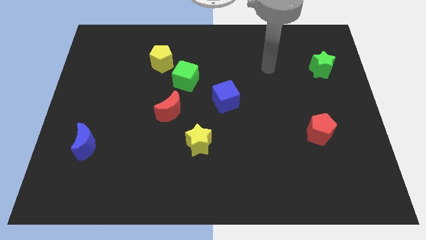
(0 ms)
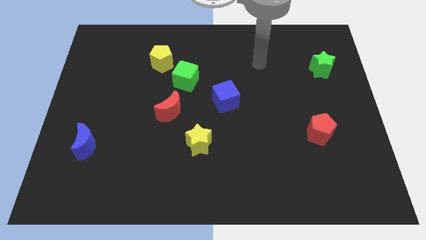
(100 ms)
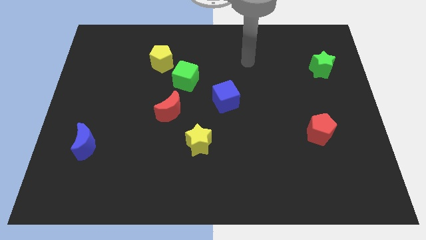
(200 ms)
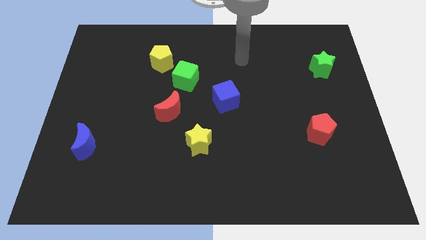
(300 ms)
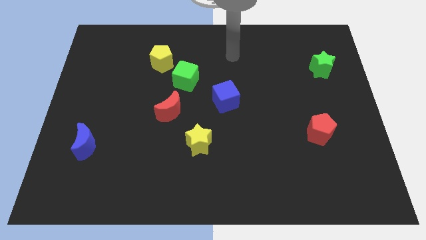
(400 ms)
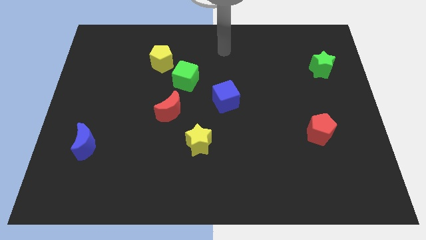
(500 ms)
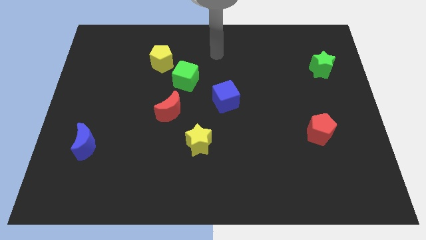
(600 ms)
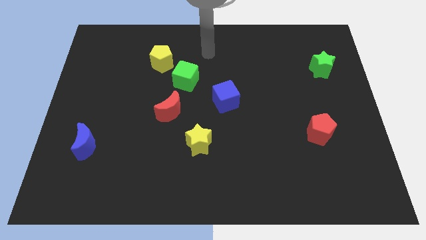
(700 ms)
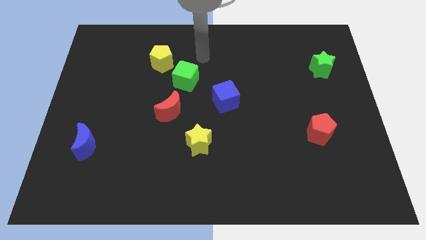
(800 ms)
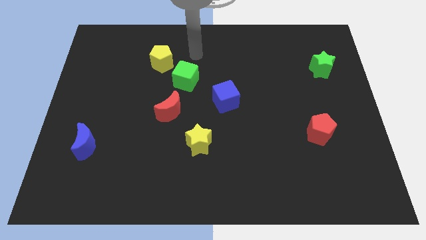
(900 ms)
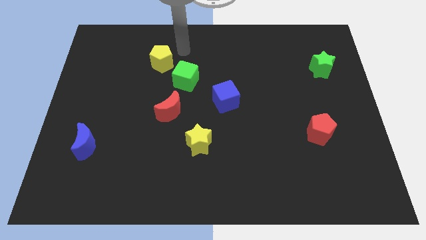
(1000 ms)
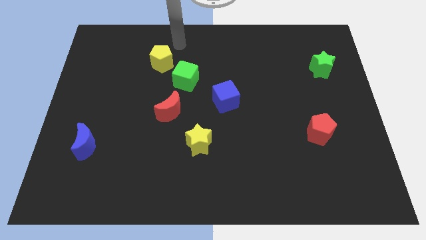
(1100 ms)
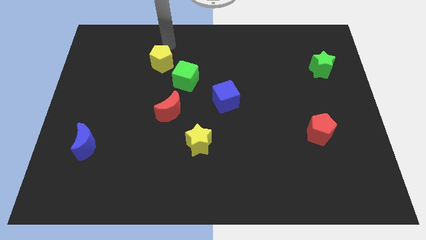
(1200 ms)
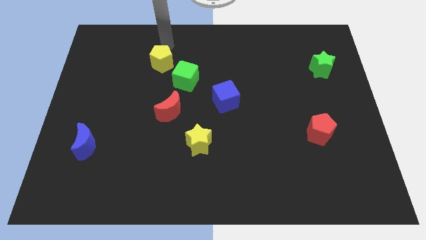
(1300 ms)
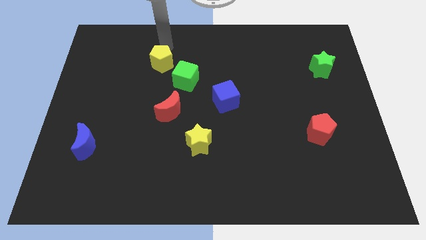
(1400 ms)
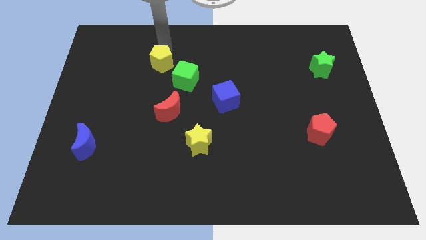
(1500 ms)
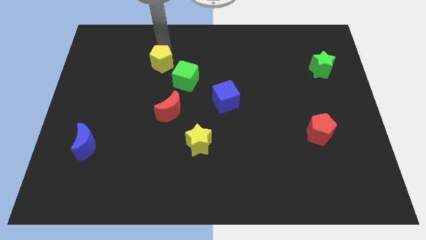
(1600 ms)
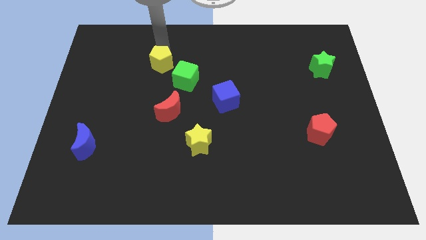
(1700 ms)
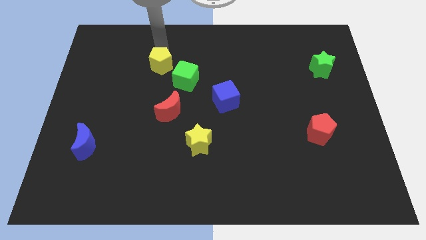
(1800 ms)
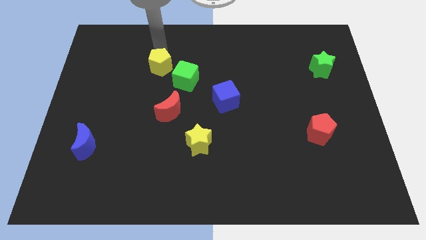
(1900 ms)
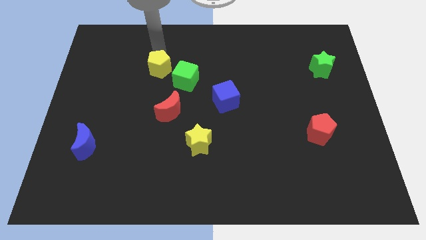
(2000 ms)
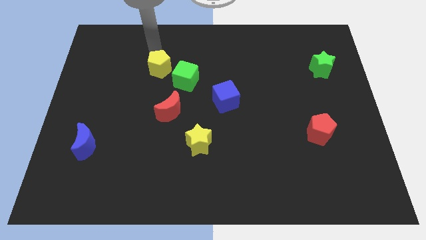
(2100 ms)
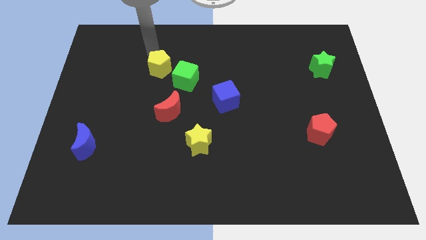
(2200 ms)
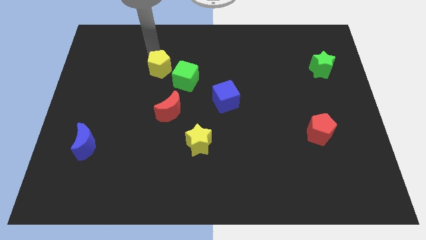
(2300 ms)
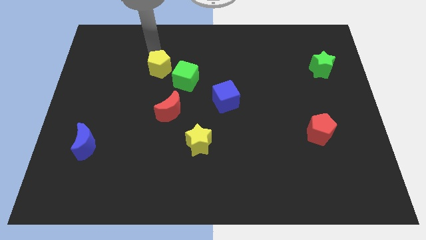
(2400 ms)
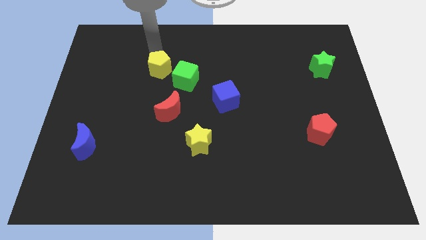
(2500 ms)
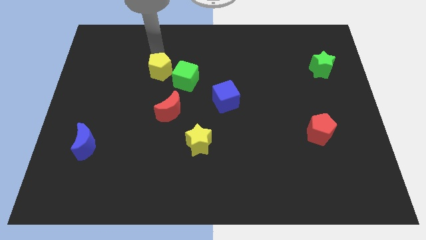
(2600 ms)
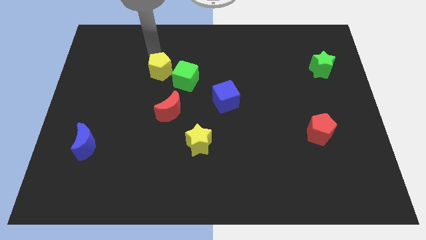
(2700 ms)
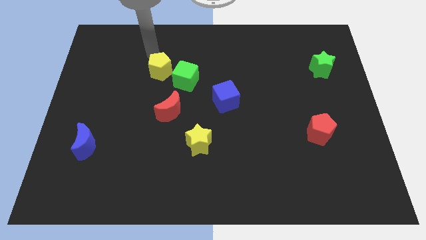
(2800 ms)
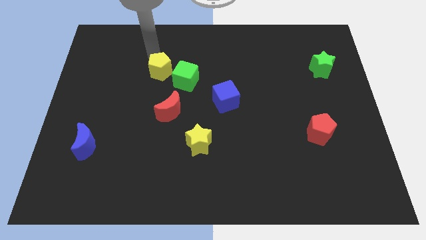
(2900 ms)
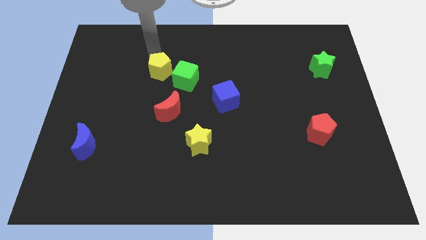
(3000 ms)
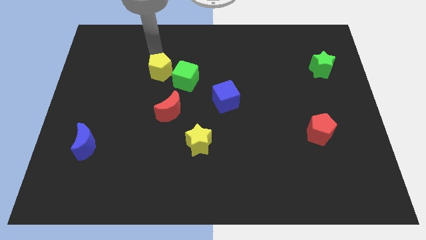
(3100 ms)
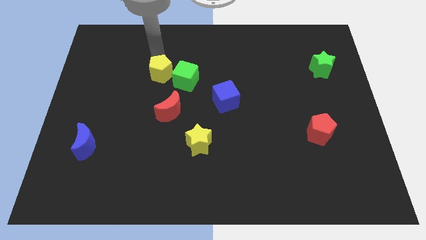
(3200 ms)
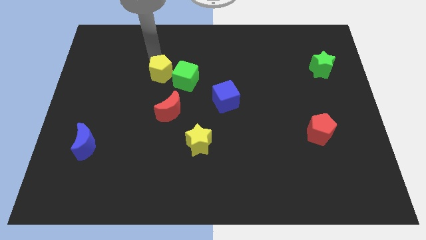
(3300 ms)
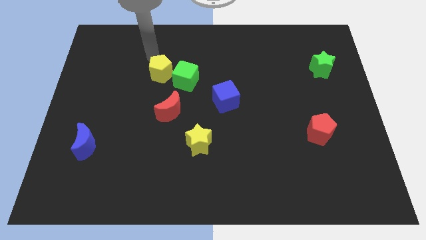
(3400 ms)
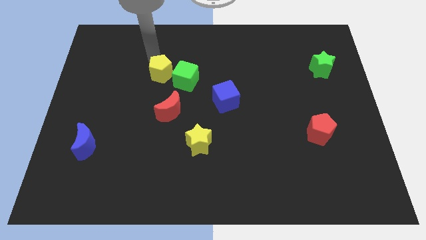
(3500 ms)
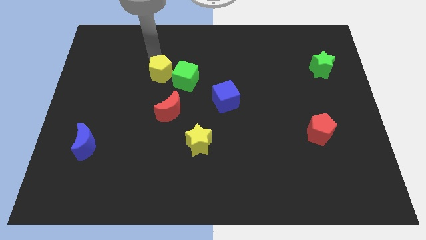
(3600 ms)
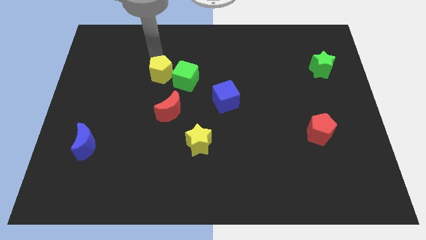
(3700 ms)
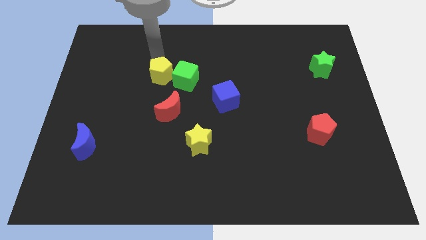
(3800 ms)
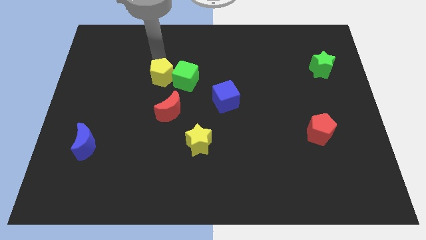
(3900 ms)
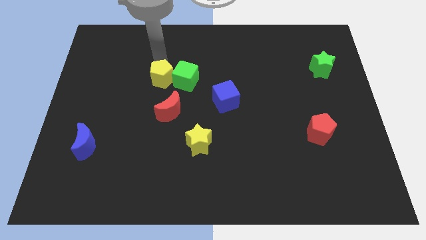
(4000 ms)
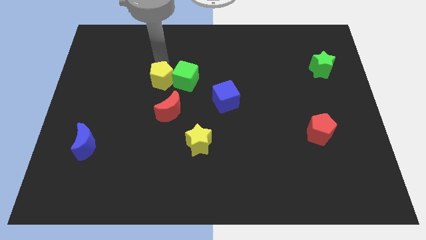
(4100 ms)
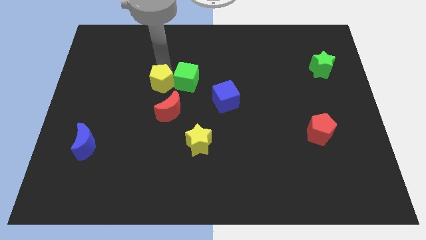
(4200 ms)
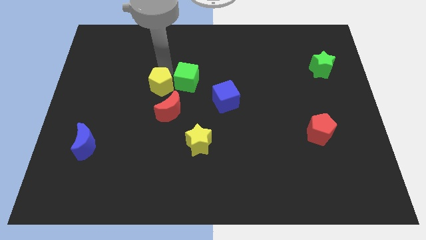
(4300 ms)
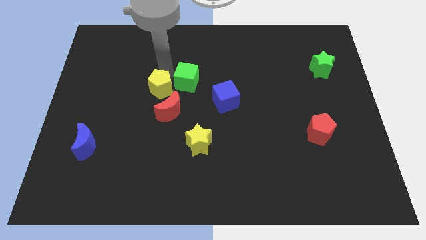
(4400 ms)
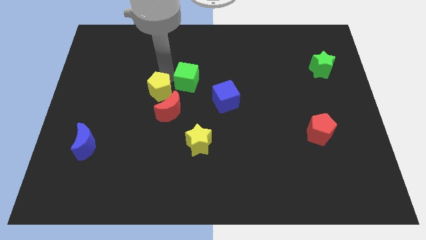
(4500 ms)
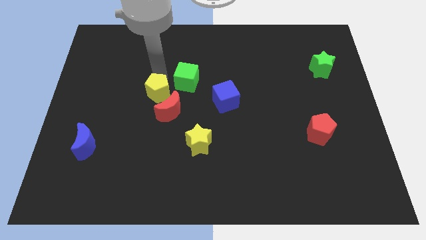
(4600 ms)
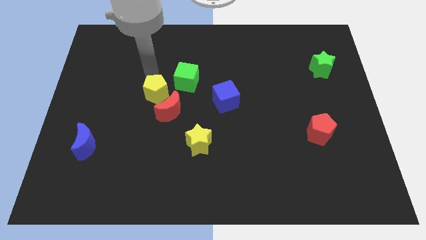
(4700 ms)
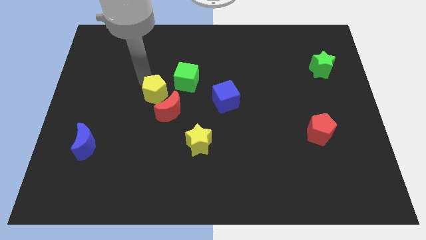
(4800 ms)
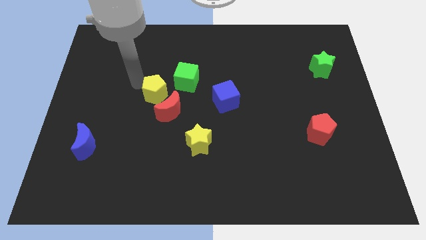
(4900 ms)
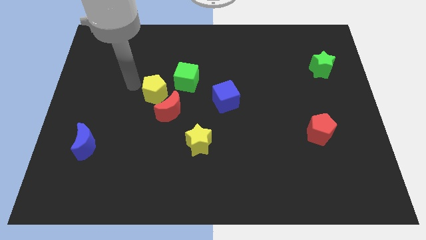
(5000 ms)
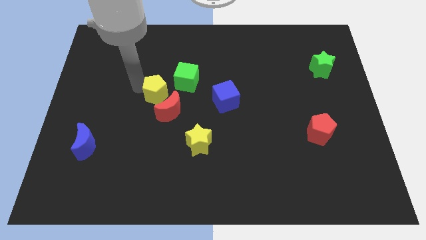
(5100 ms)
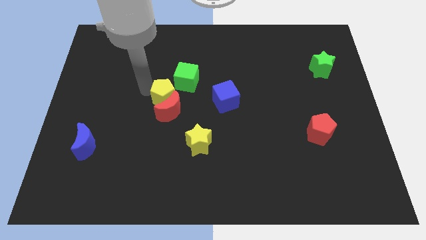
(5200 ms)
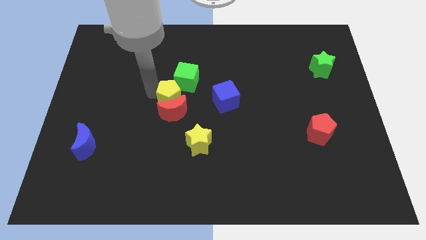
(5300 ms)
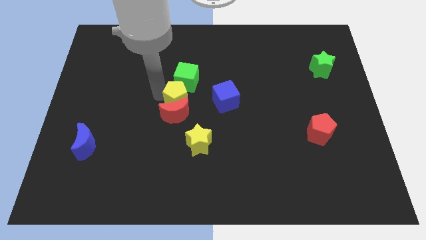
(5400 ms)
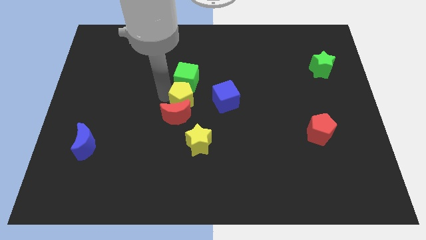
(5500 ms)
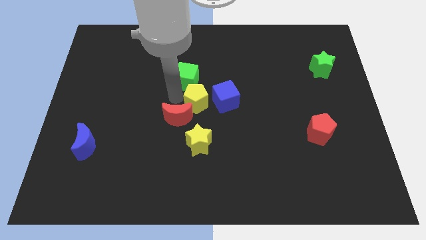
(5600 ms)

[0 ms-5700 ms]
put the yellow pentagon to the right of the red moon

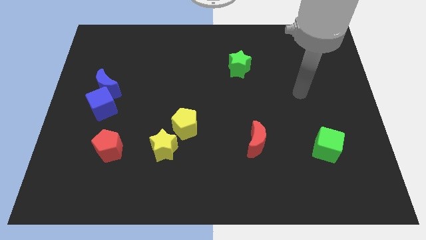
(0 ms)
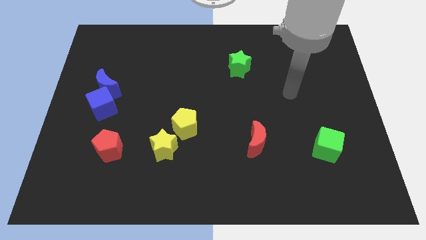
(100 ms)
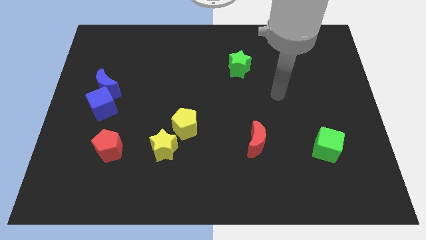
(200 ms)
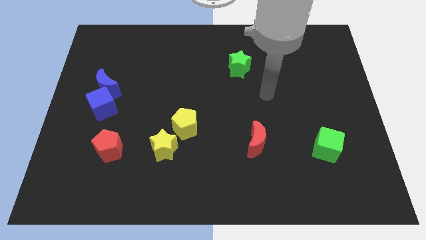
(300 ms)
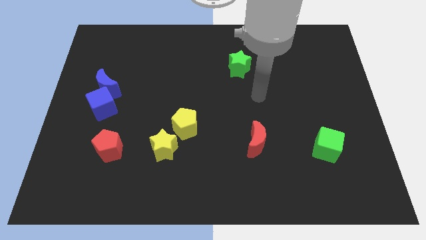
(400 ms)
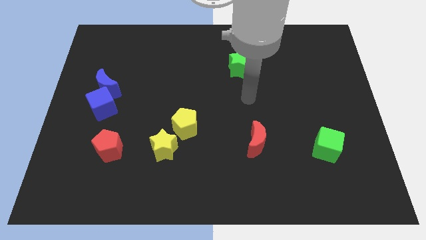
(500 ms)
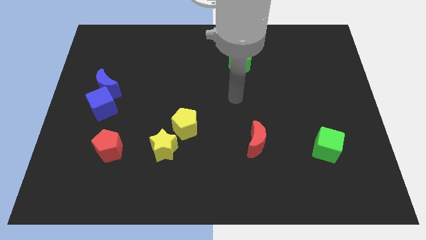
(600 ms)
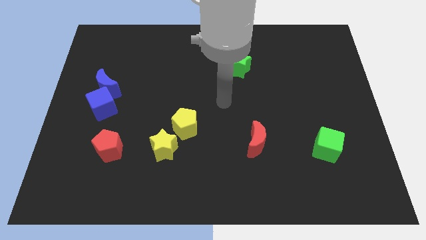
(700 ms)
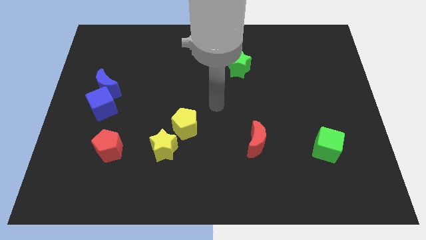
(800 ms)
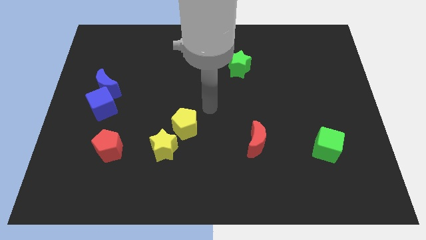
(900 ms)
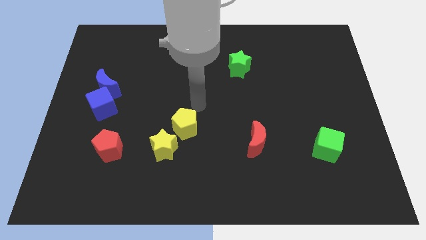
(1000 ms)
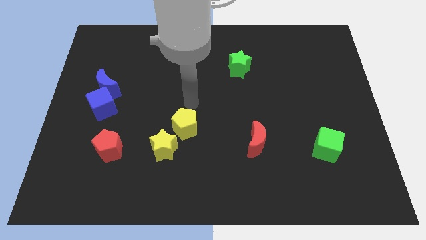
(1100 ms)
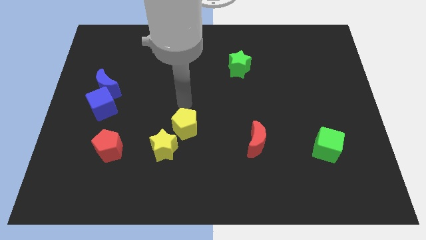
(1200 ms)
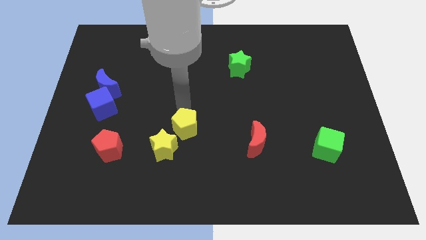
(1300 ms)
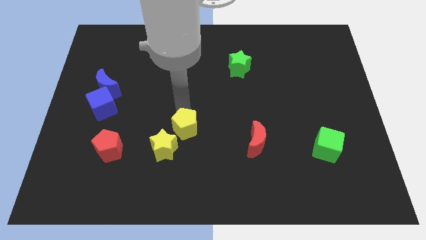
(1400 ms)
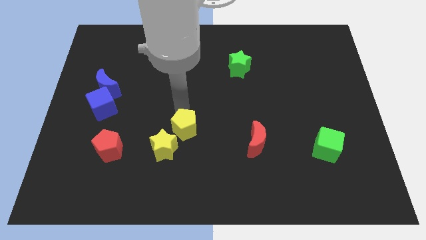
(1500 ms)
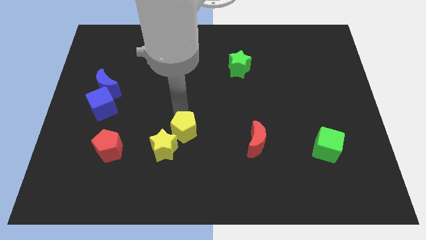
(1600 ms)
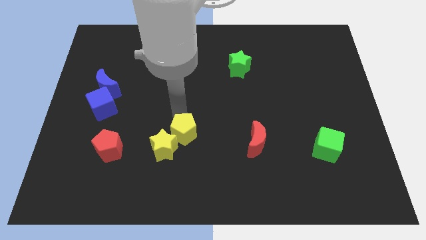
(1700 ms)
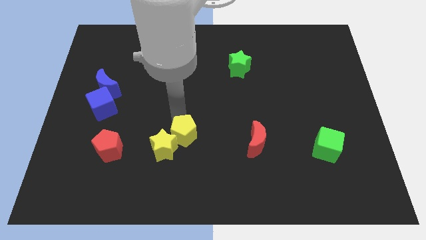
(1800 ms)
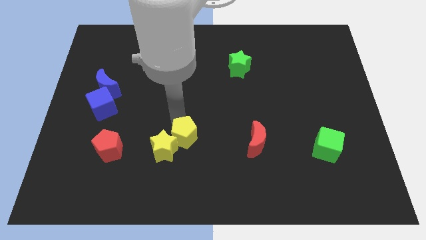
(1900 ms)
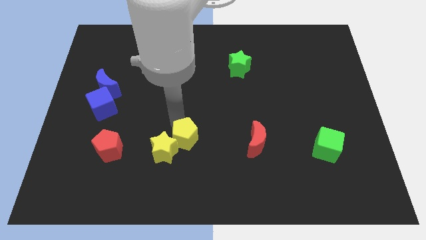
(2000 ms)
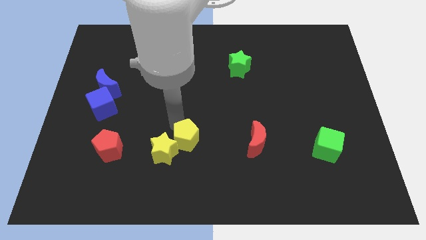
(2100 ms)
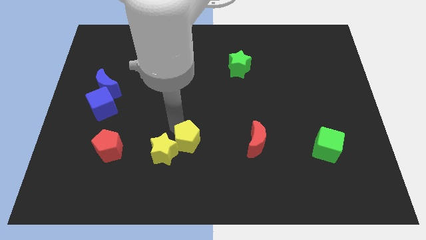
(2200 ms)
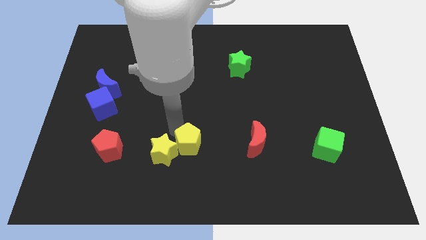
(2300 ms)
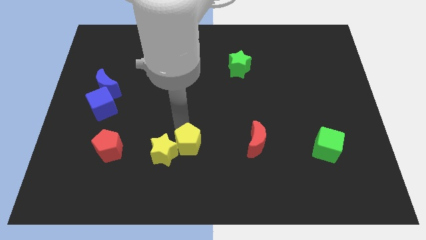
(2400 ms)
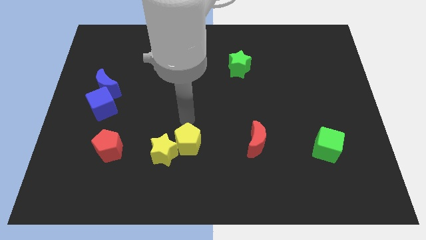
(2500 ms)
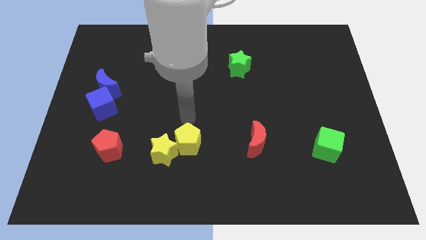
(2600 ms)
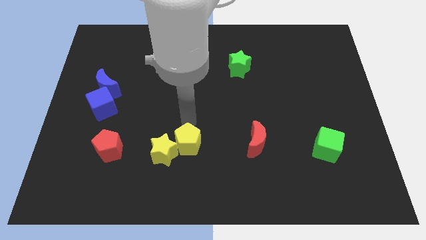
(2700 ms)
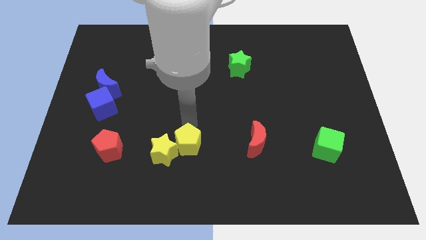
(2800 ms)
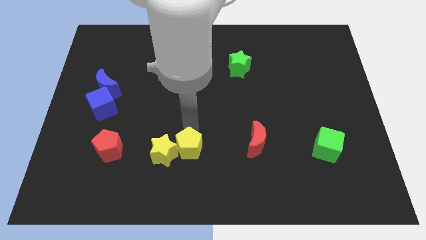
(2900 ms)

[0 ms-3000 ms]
put the yellow pentagon to the bottom right of the yellow star
